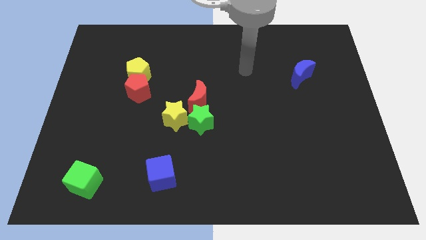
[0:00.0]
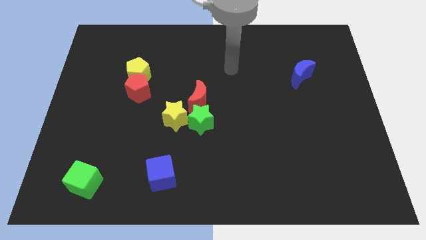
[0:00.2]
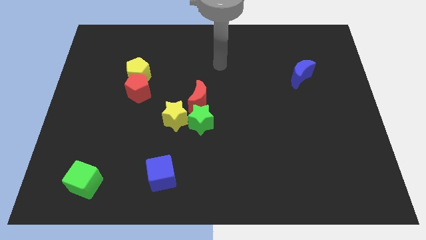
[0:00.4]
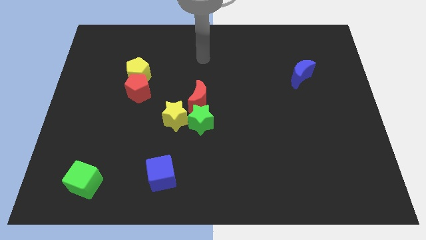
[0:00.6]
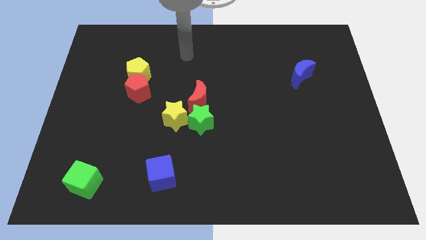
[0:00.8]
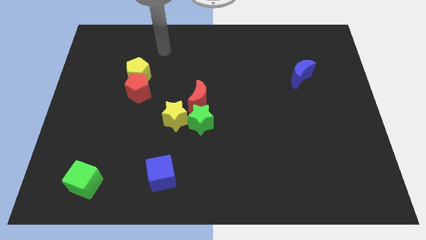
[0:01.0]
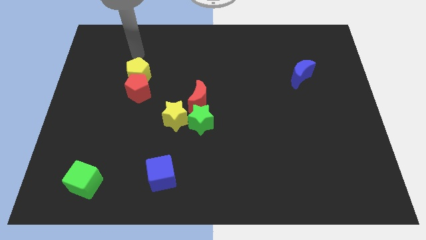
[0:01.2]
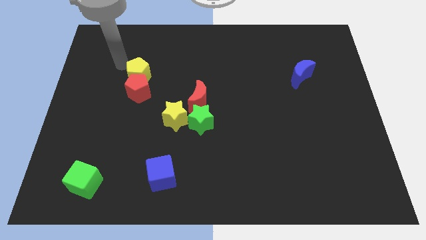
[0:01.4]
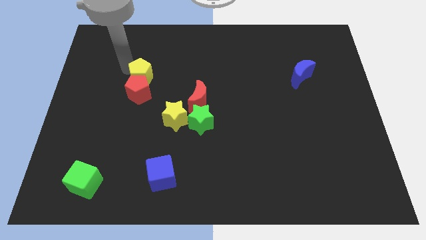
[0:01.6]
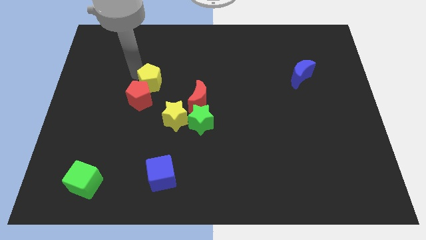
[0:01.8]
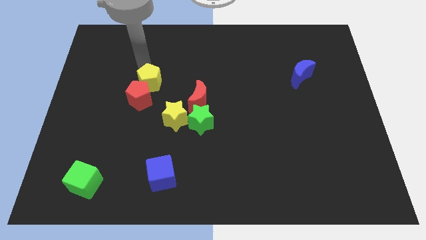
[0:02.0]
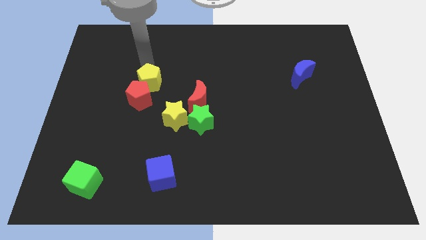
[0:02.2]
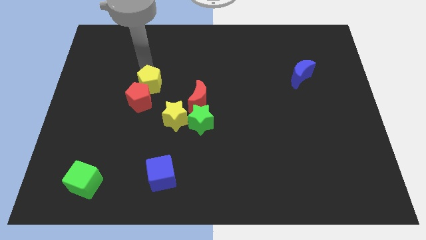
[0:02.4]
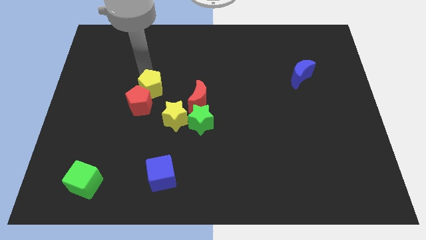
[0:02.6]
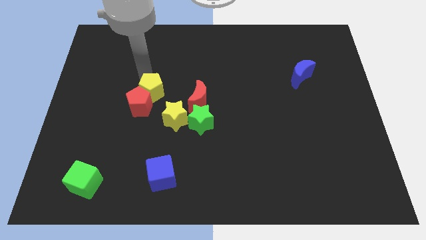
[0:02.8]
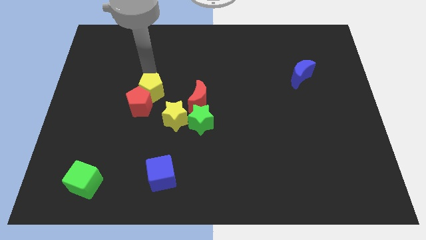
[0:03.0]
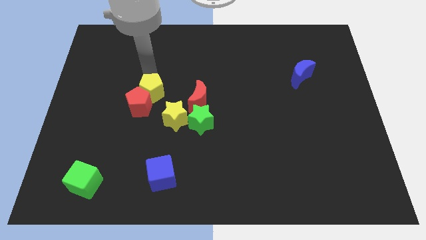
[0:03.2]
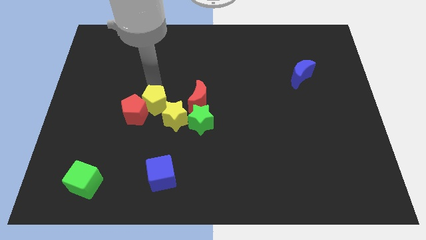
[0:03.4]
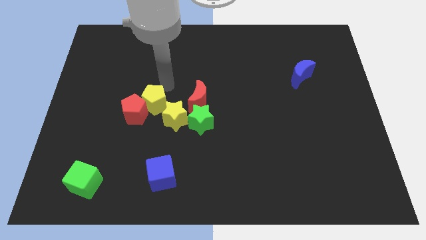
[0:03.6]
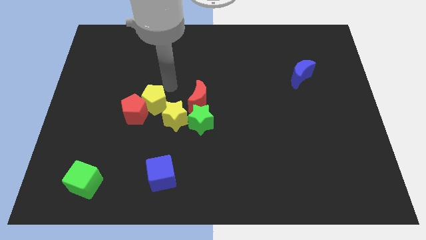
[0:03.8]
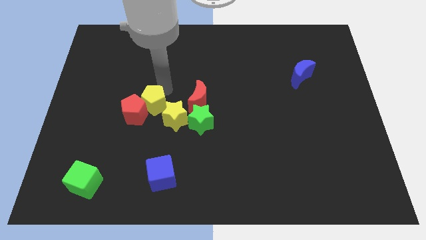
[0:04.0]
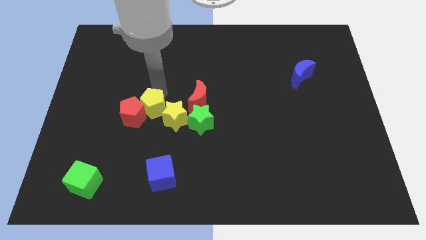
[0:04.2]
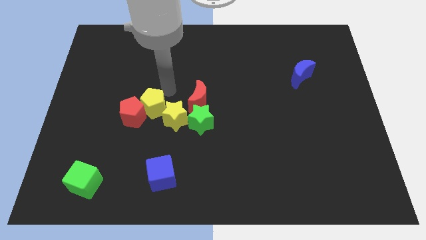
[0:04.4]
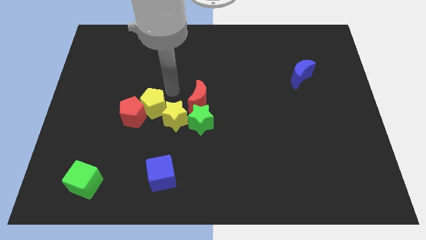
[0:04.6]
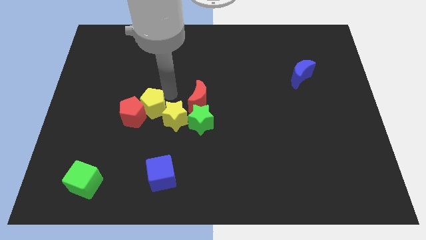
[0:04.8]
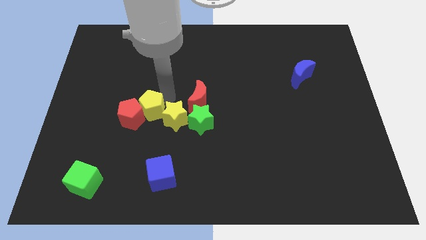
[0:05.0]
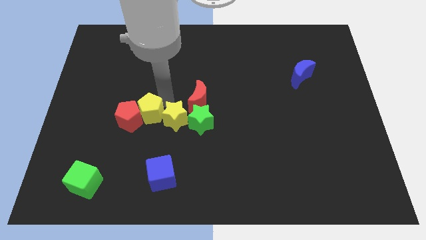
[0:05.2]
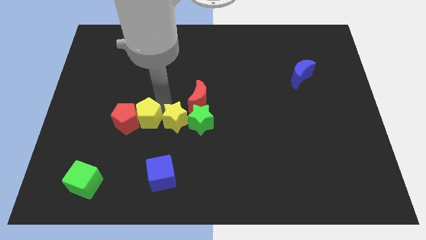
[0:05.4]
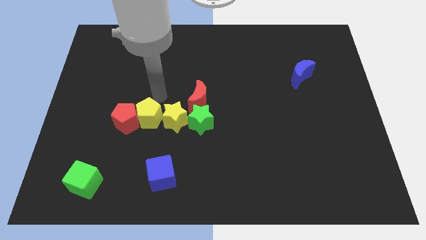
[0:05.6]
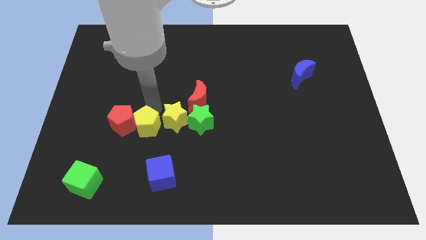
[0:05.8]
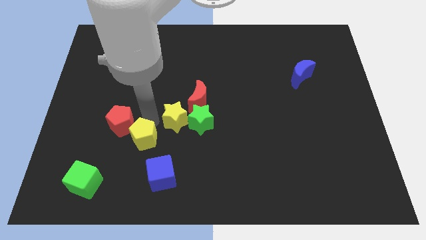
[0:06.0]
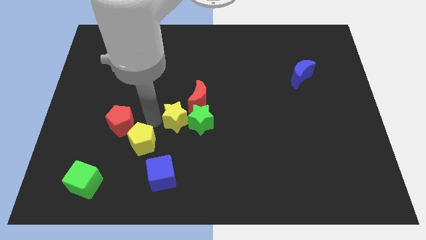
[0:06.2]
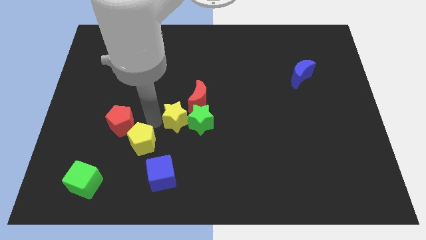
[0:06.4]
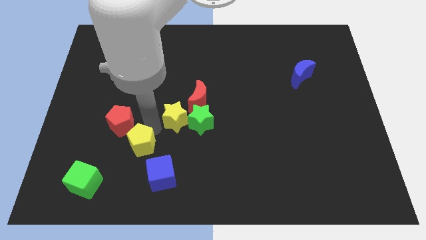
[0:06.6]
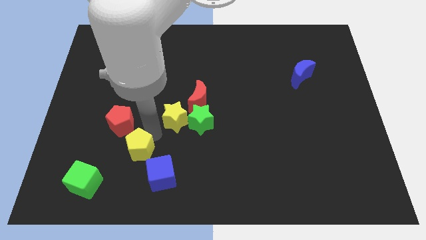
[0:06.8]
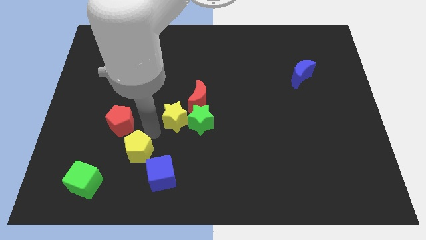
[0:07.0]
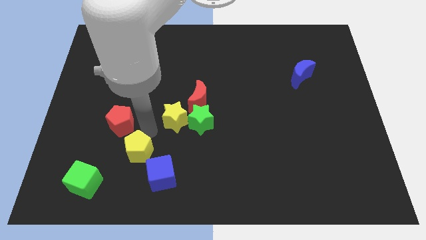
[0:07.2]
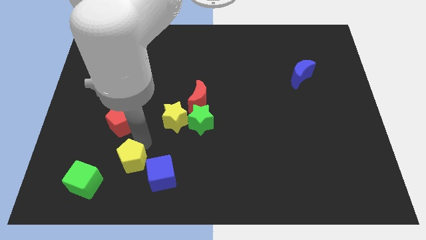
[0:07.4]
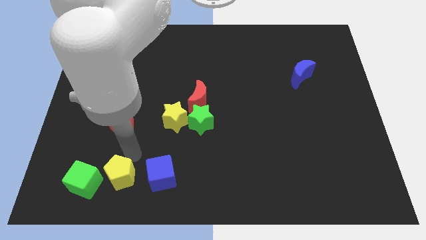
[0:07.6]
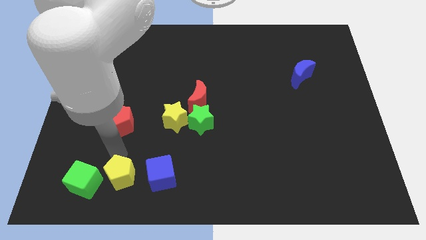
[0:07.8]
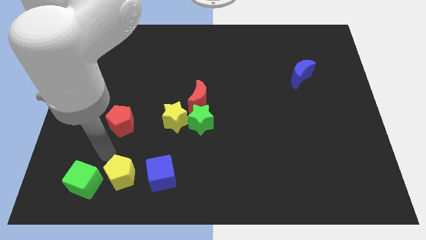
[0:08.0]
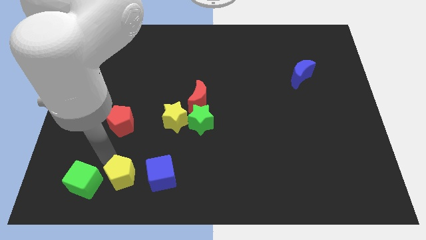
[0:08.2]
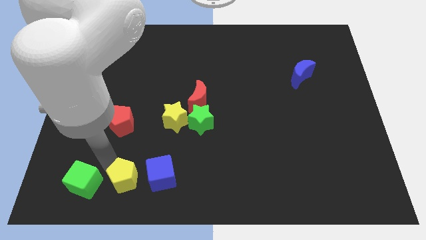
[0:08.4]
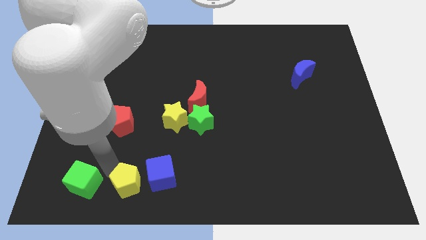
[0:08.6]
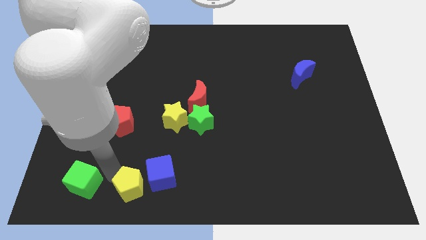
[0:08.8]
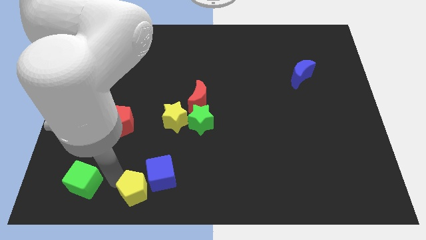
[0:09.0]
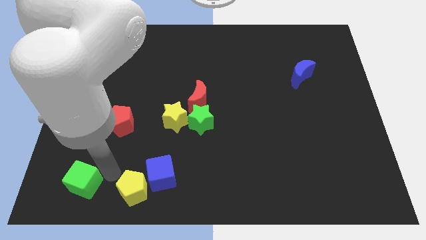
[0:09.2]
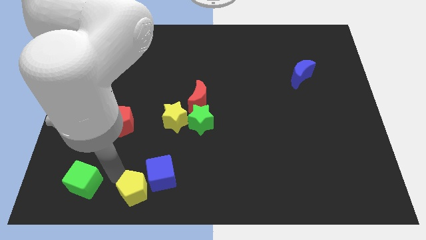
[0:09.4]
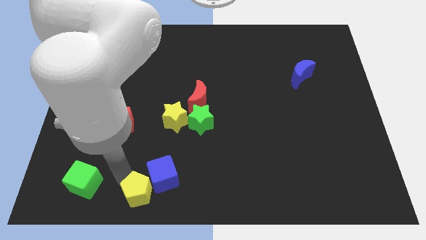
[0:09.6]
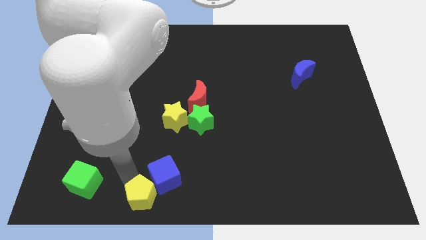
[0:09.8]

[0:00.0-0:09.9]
put the yellow pentagon to the bottom side

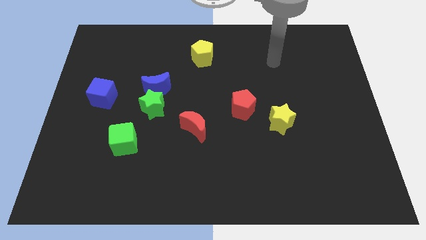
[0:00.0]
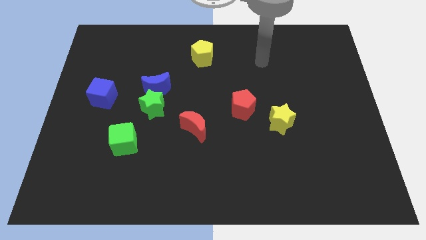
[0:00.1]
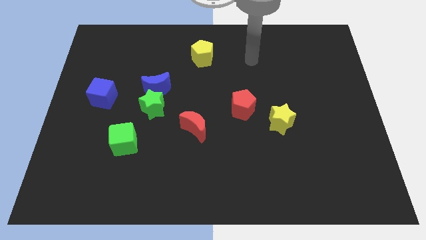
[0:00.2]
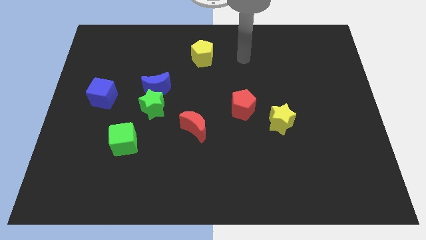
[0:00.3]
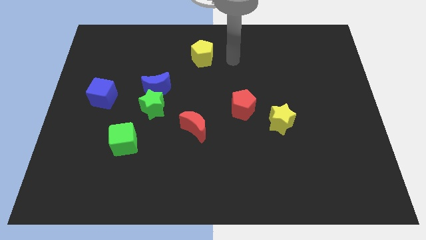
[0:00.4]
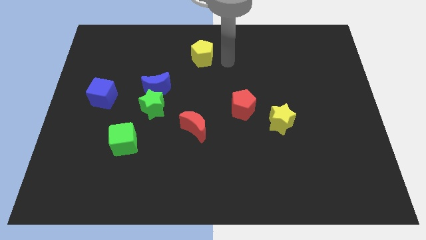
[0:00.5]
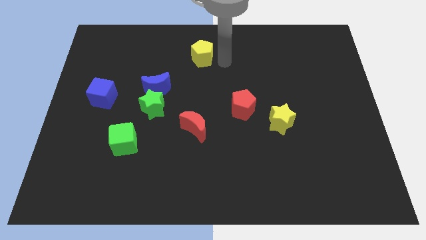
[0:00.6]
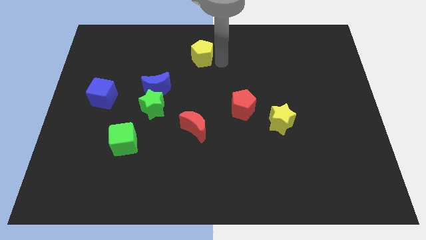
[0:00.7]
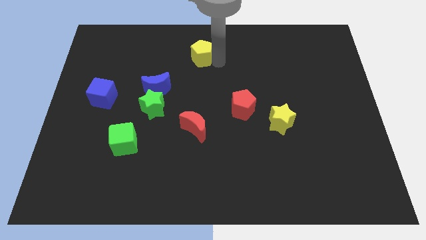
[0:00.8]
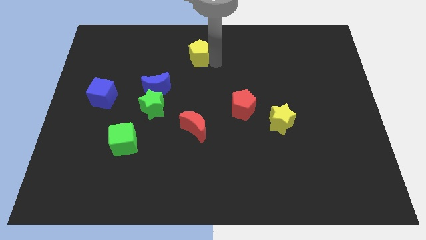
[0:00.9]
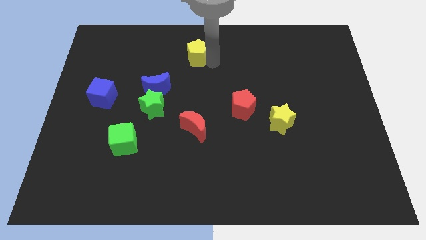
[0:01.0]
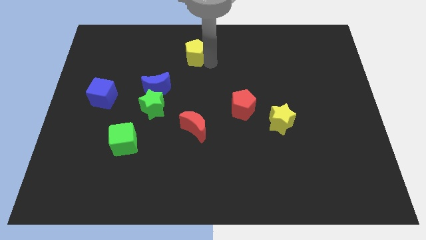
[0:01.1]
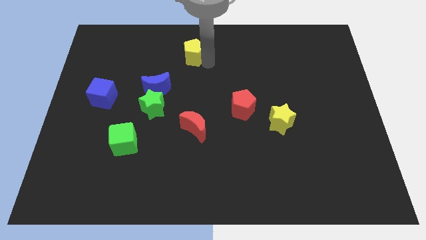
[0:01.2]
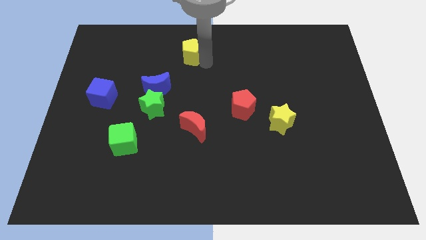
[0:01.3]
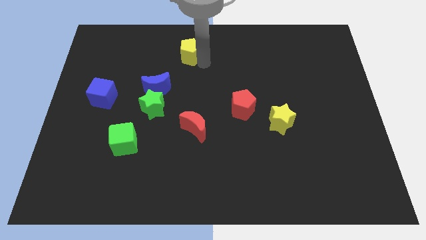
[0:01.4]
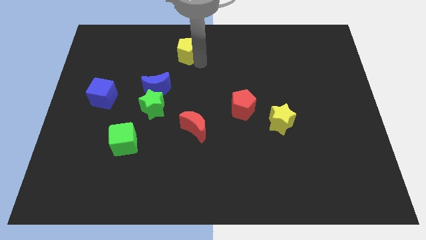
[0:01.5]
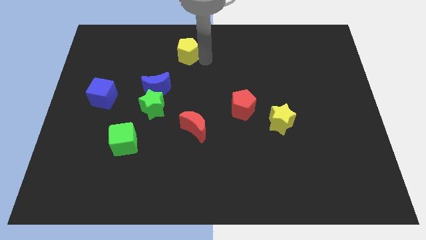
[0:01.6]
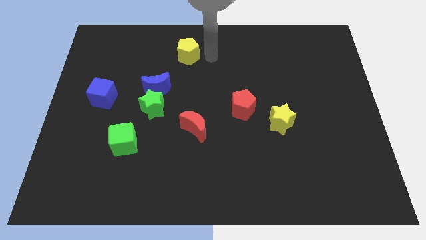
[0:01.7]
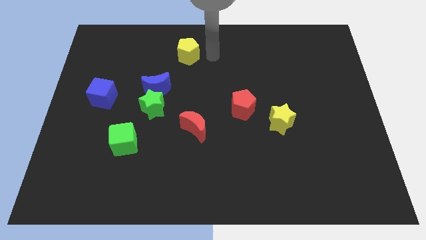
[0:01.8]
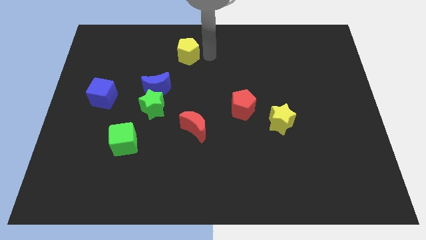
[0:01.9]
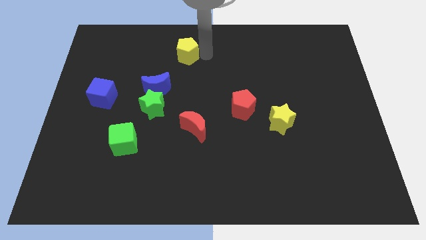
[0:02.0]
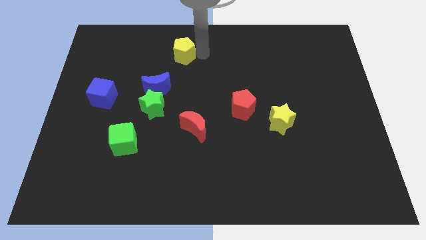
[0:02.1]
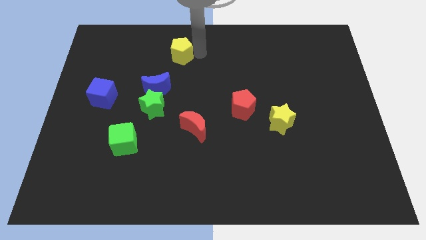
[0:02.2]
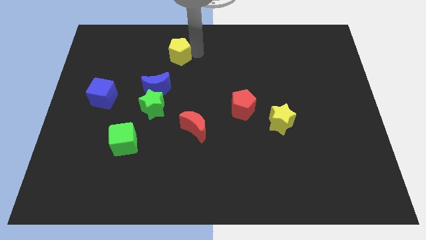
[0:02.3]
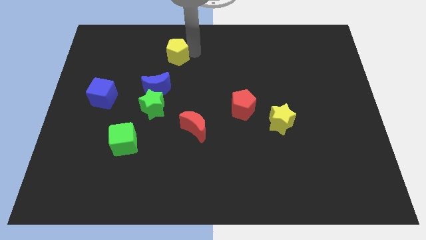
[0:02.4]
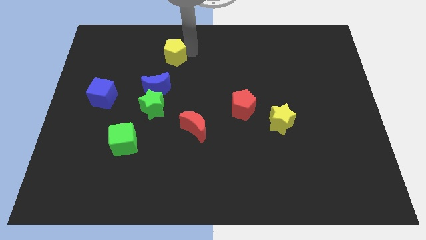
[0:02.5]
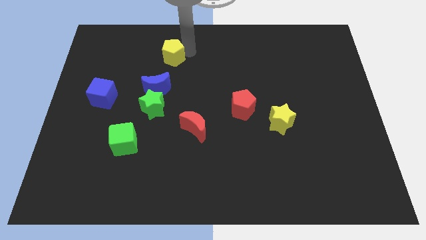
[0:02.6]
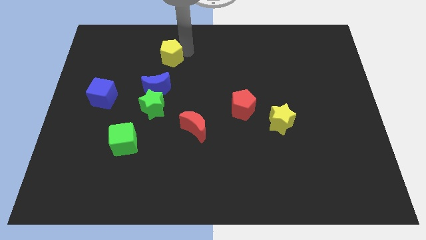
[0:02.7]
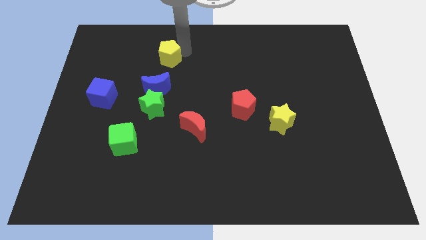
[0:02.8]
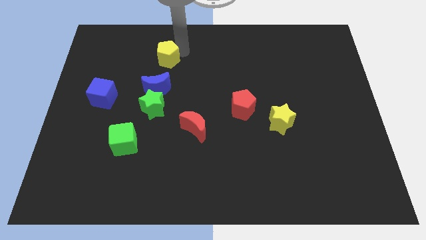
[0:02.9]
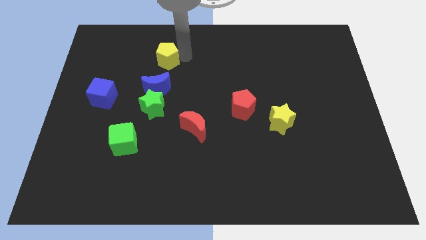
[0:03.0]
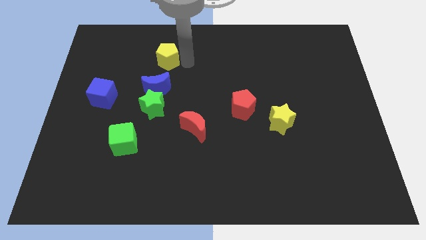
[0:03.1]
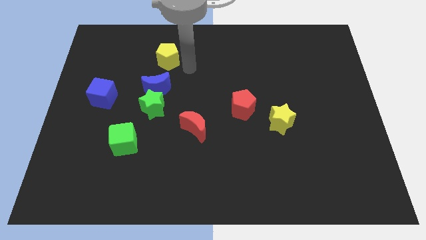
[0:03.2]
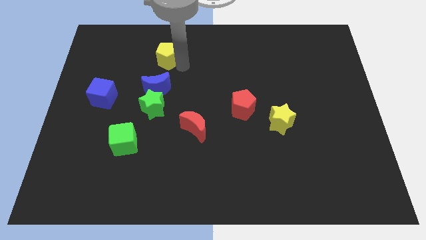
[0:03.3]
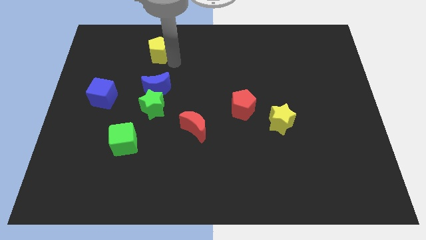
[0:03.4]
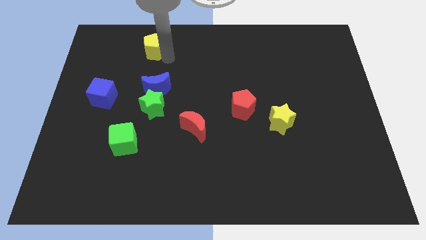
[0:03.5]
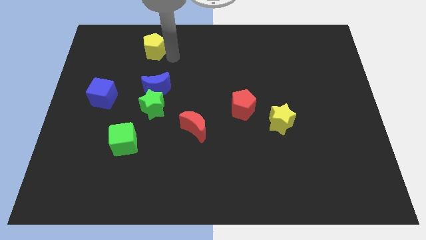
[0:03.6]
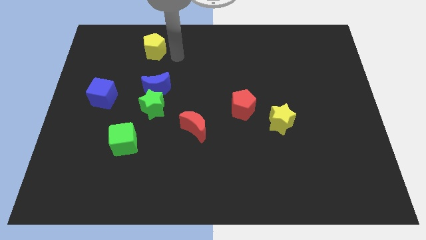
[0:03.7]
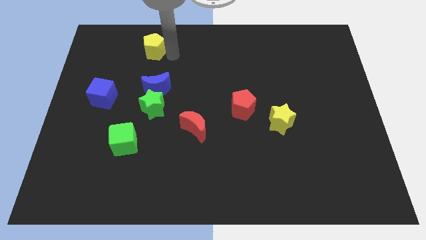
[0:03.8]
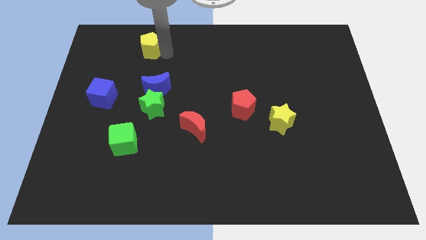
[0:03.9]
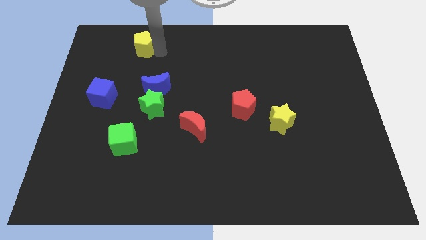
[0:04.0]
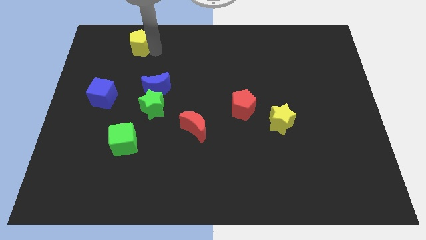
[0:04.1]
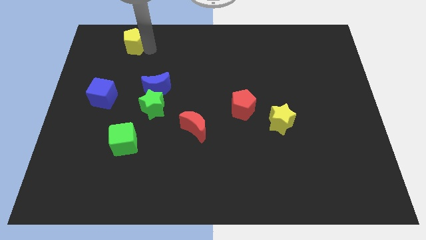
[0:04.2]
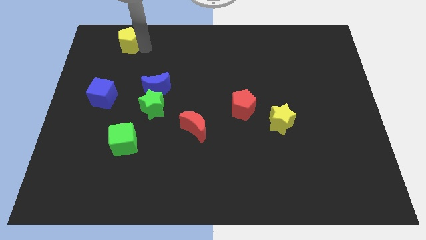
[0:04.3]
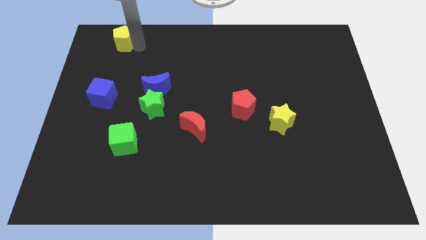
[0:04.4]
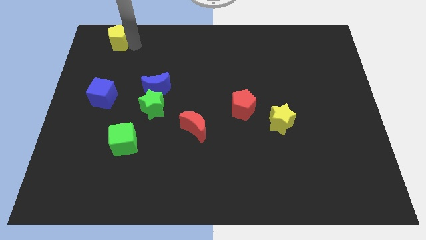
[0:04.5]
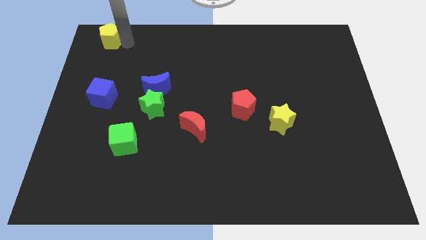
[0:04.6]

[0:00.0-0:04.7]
put the yellow pentagon to the top left
